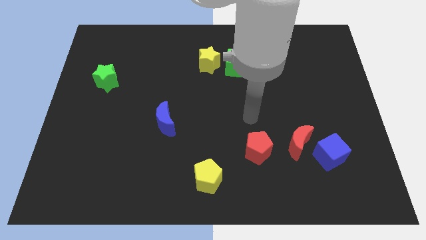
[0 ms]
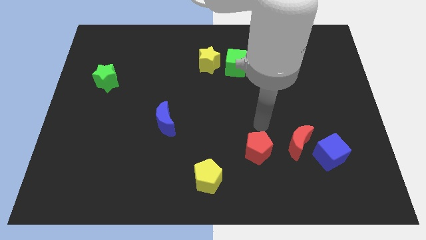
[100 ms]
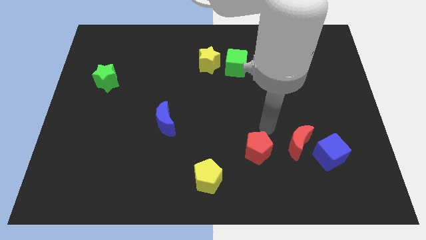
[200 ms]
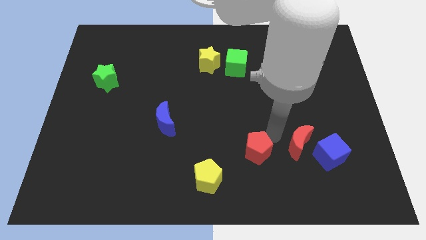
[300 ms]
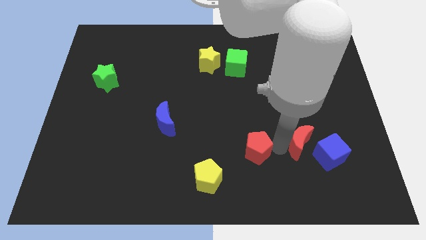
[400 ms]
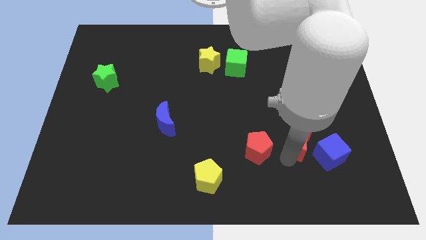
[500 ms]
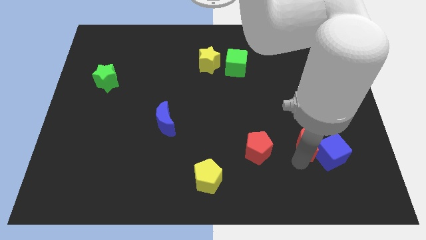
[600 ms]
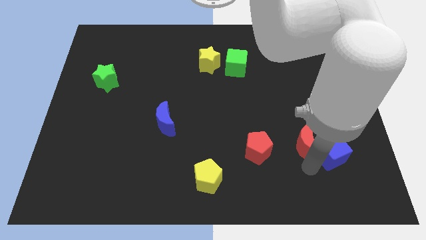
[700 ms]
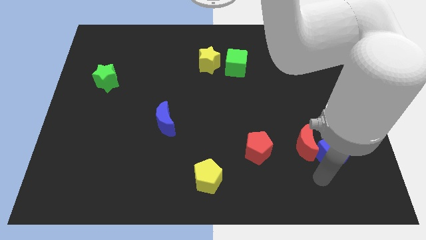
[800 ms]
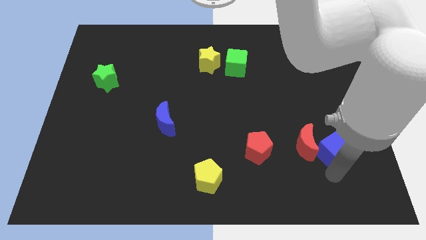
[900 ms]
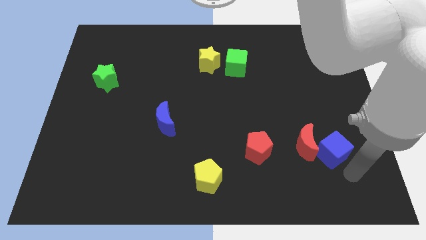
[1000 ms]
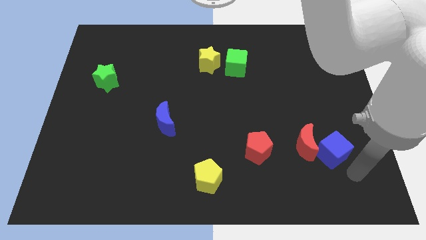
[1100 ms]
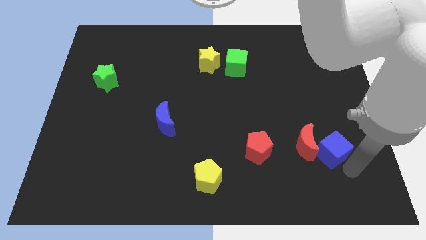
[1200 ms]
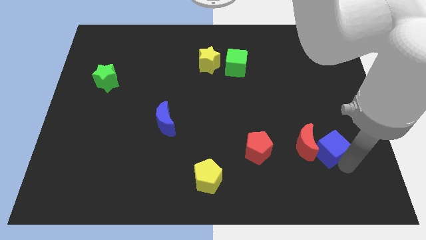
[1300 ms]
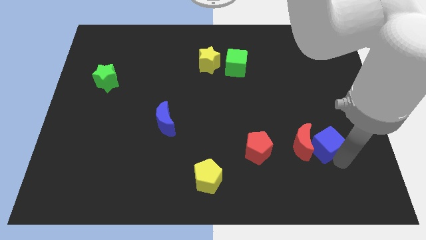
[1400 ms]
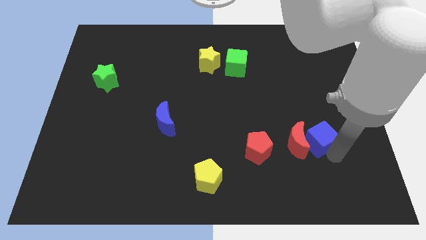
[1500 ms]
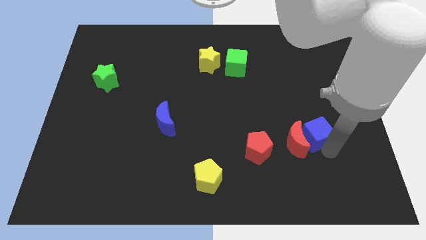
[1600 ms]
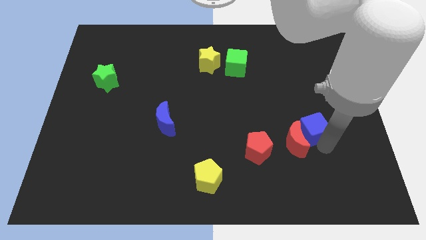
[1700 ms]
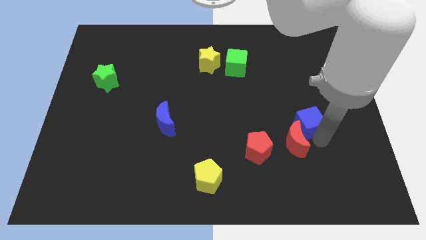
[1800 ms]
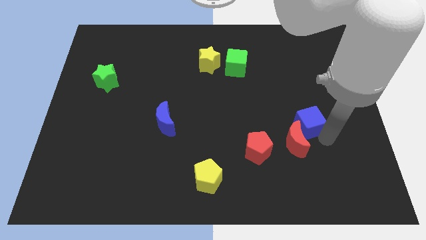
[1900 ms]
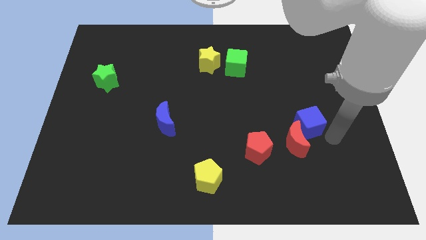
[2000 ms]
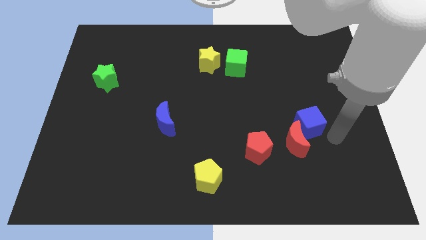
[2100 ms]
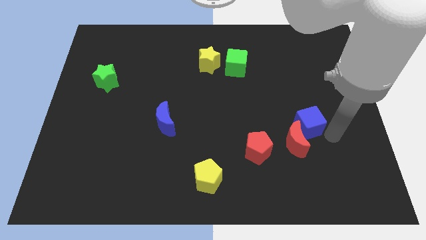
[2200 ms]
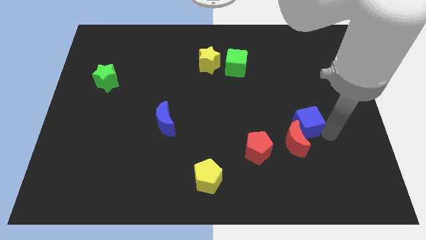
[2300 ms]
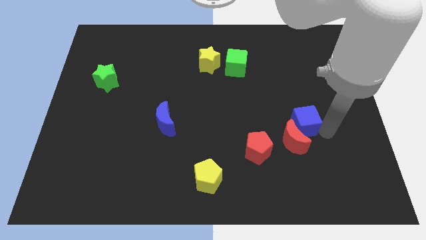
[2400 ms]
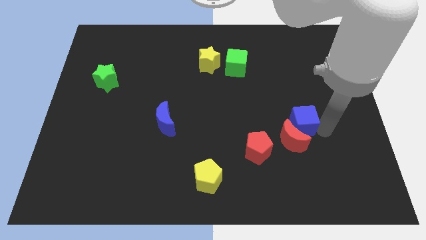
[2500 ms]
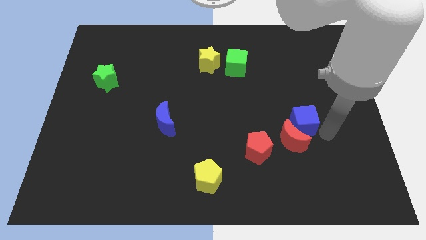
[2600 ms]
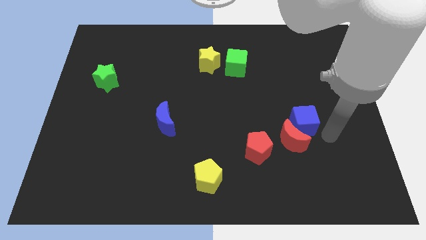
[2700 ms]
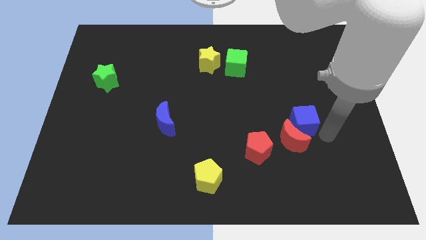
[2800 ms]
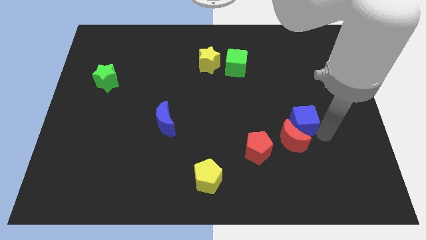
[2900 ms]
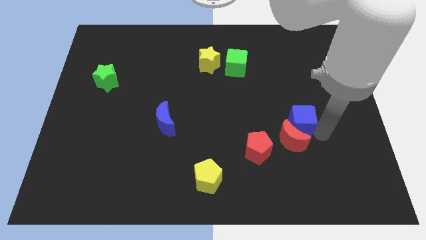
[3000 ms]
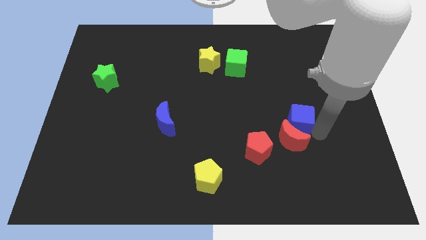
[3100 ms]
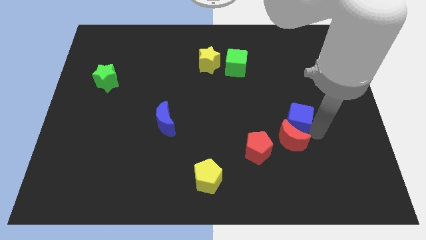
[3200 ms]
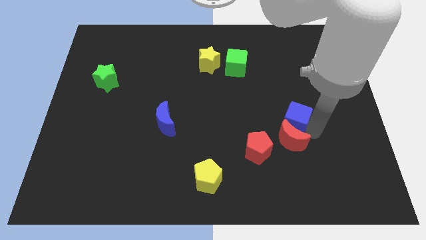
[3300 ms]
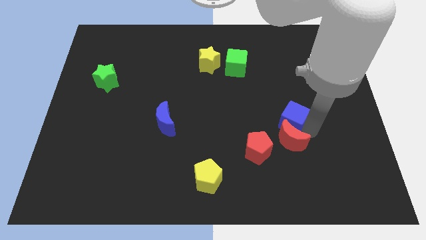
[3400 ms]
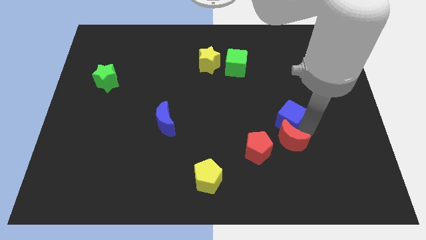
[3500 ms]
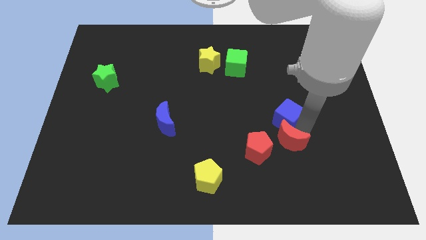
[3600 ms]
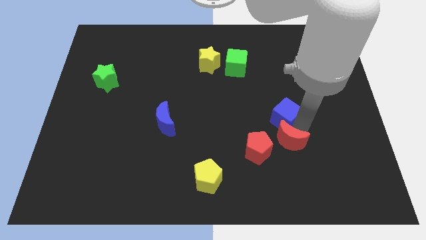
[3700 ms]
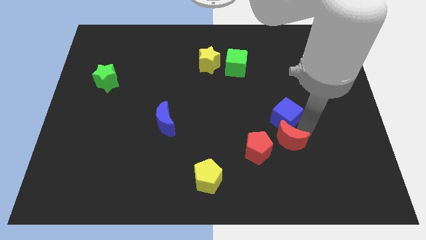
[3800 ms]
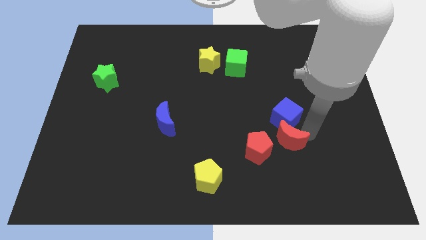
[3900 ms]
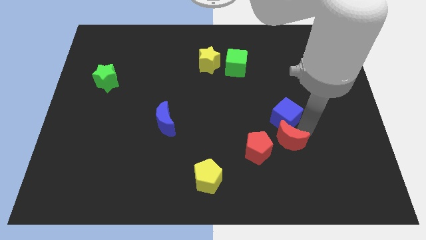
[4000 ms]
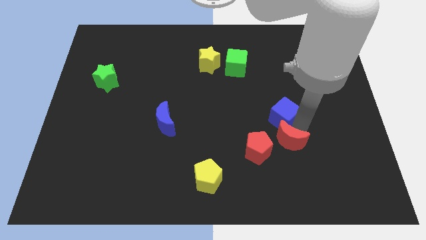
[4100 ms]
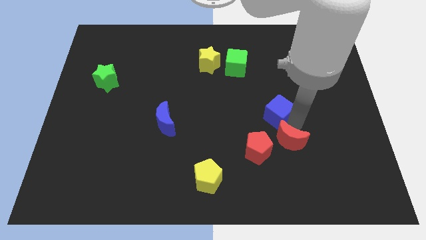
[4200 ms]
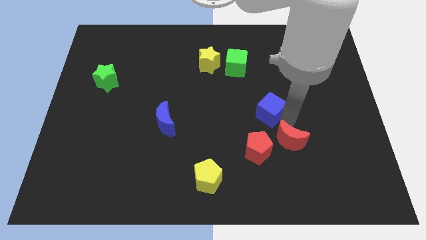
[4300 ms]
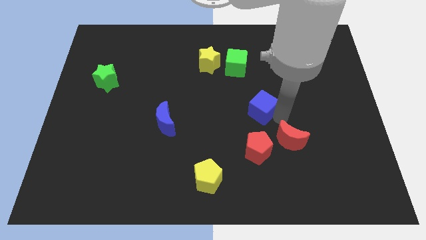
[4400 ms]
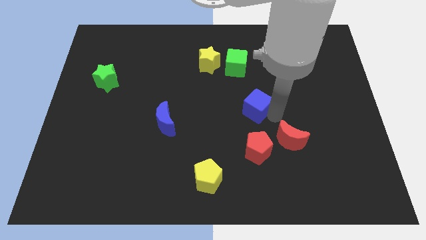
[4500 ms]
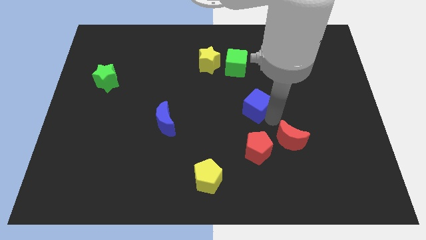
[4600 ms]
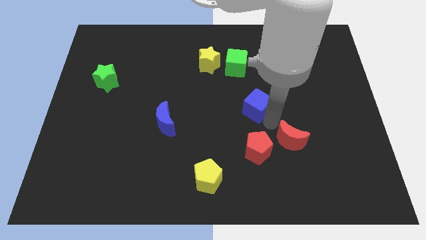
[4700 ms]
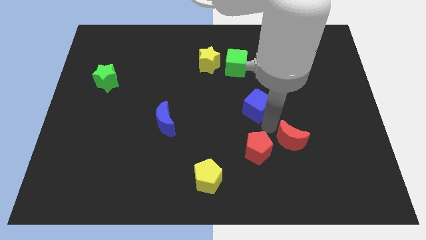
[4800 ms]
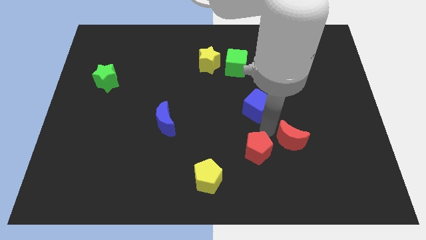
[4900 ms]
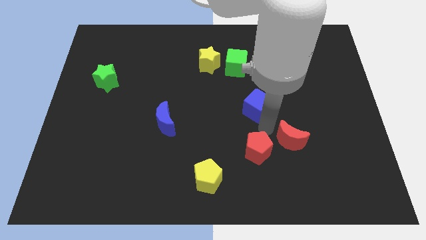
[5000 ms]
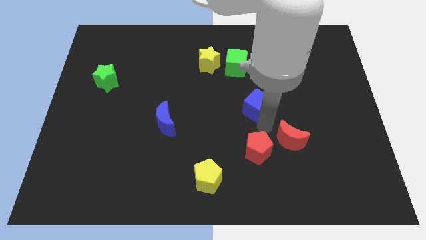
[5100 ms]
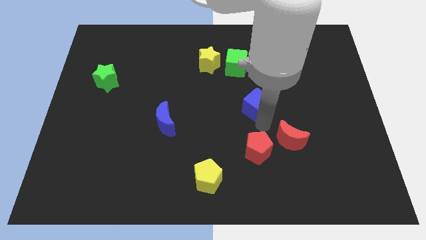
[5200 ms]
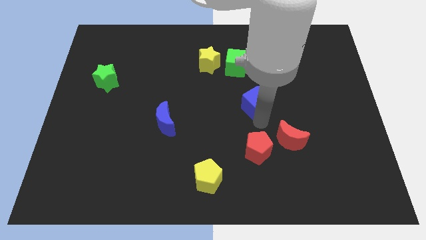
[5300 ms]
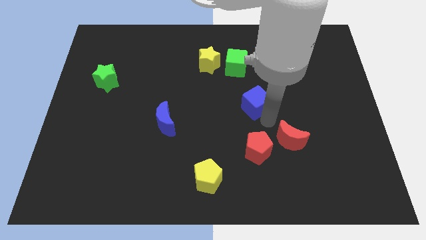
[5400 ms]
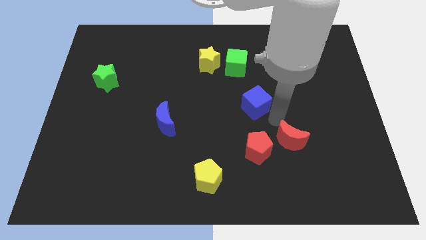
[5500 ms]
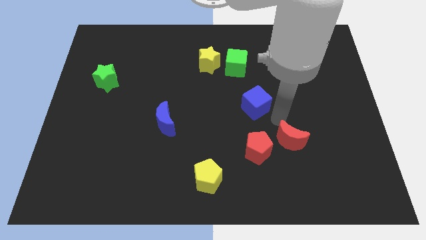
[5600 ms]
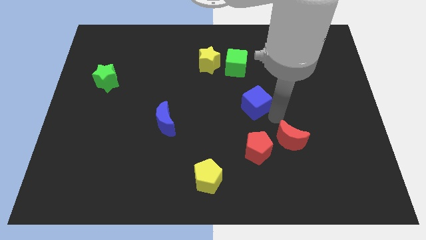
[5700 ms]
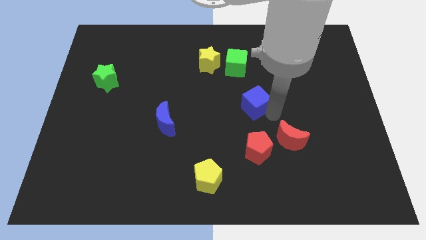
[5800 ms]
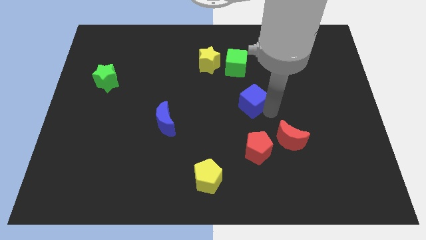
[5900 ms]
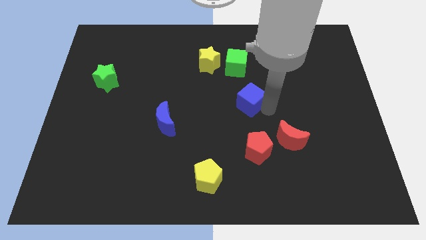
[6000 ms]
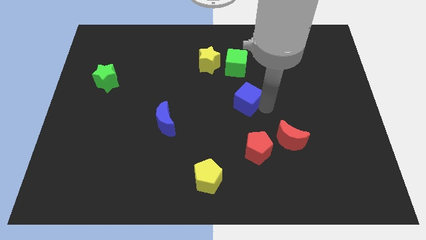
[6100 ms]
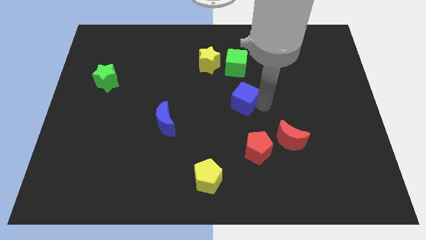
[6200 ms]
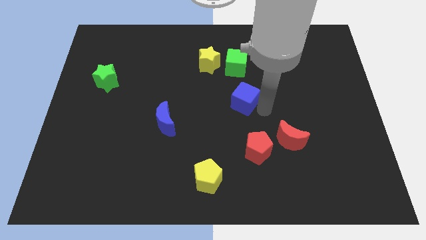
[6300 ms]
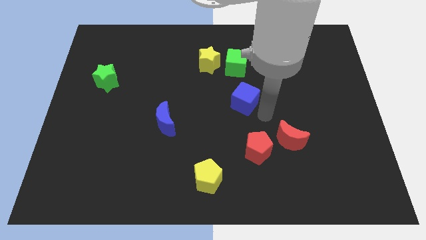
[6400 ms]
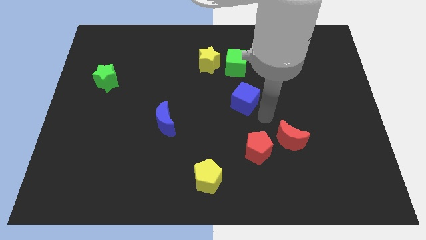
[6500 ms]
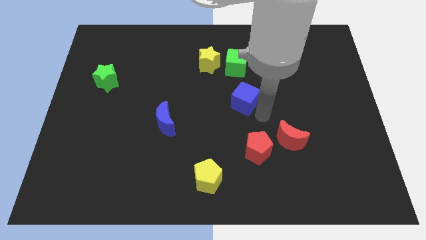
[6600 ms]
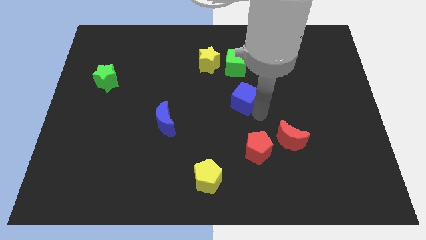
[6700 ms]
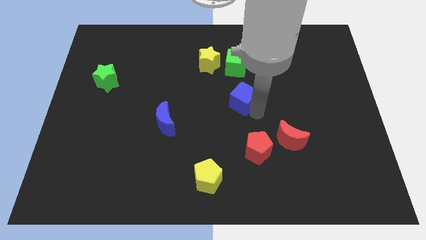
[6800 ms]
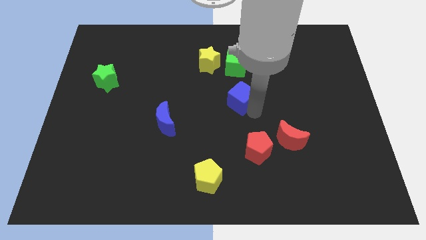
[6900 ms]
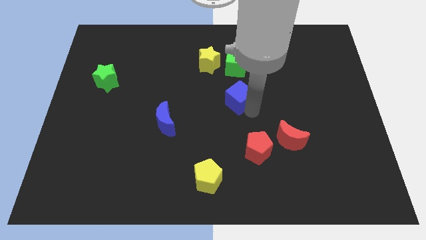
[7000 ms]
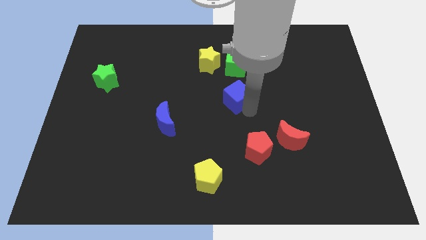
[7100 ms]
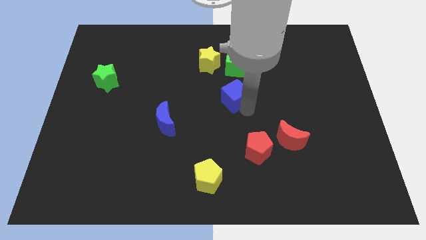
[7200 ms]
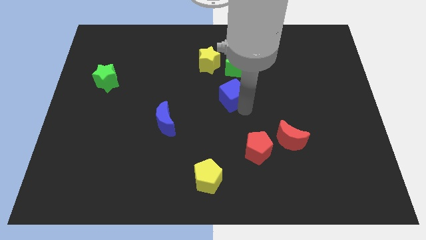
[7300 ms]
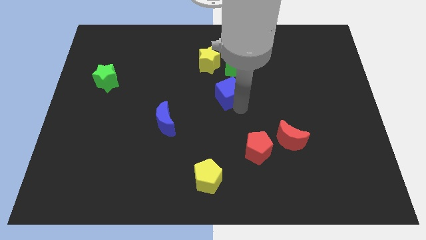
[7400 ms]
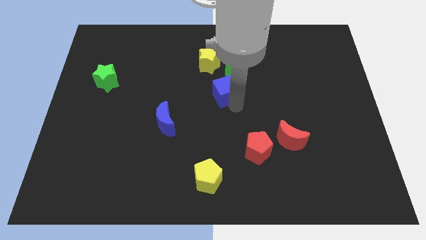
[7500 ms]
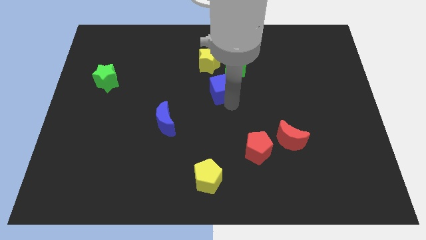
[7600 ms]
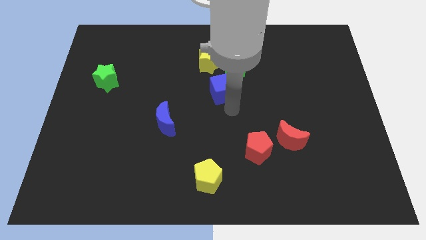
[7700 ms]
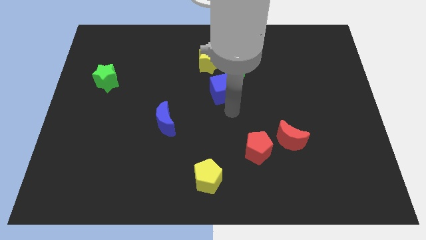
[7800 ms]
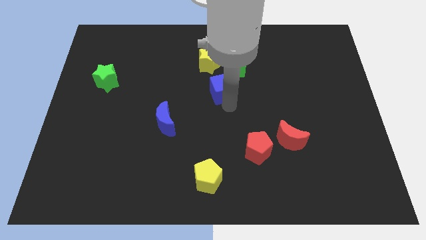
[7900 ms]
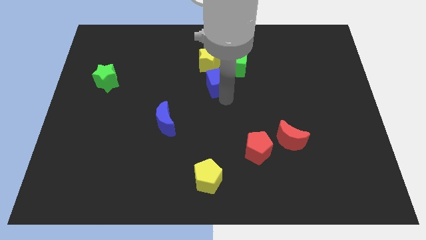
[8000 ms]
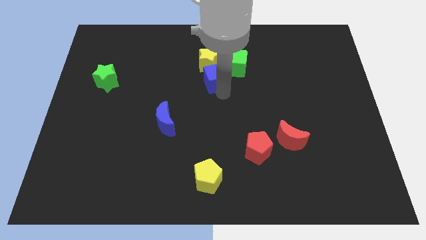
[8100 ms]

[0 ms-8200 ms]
move the blue cube to the yellow star
